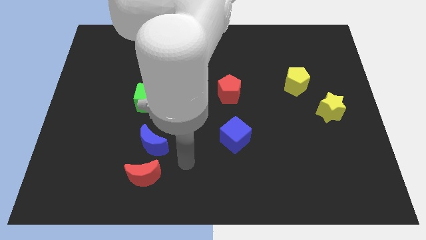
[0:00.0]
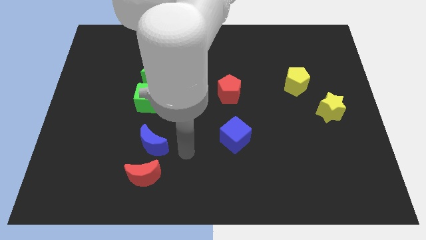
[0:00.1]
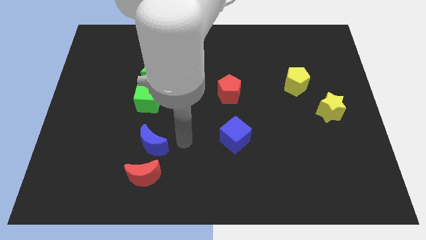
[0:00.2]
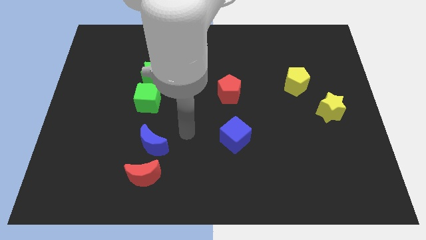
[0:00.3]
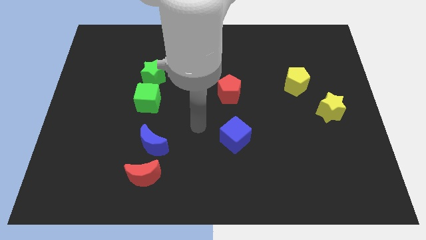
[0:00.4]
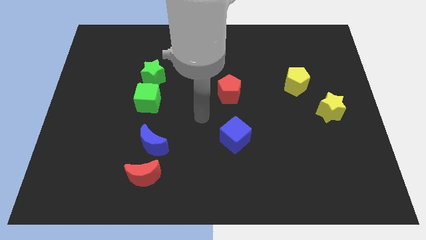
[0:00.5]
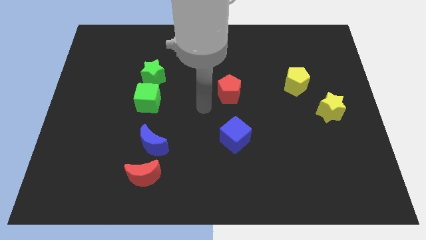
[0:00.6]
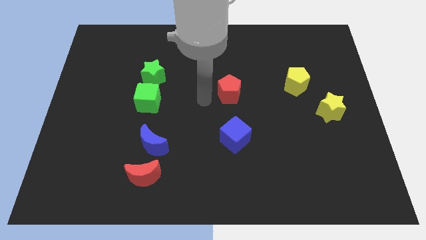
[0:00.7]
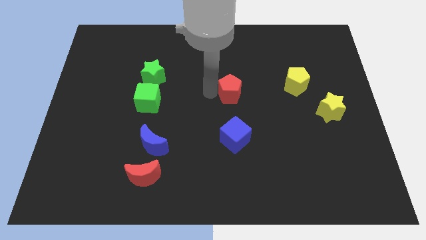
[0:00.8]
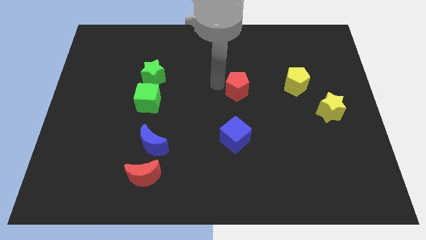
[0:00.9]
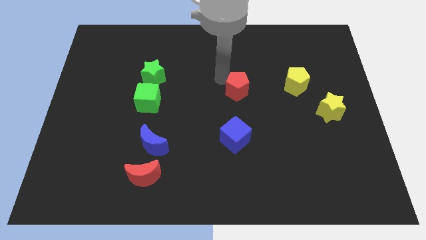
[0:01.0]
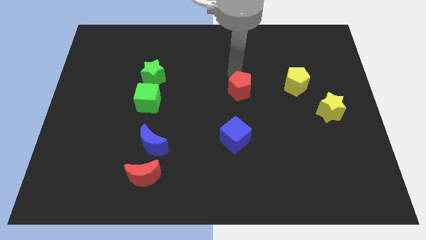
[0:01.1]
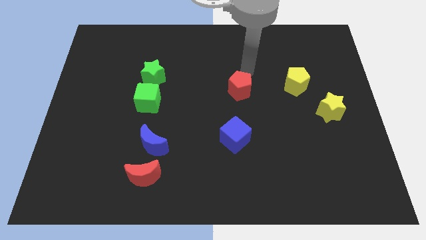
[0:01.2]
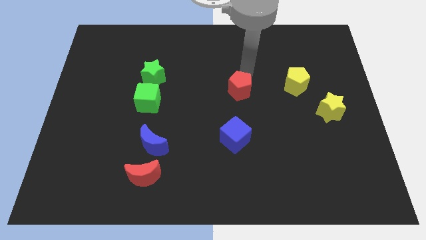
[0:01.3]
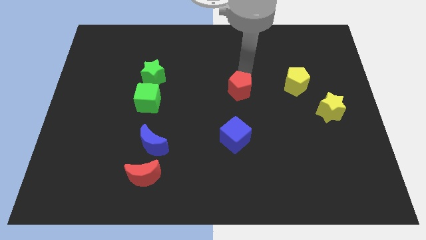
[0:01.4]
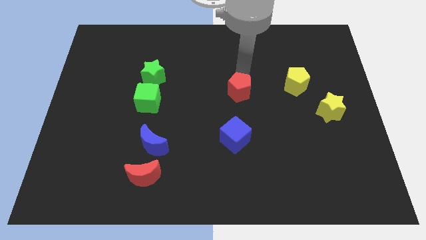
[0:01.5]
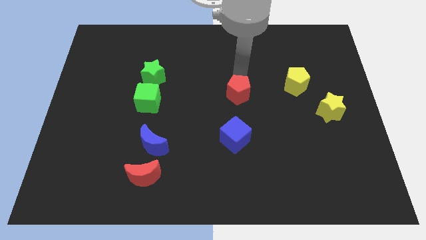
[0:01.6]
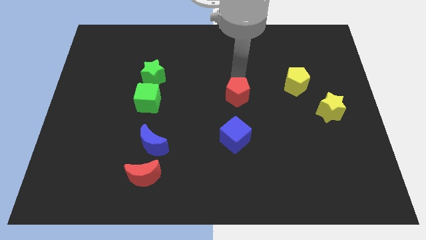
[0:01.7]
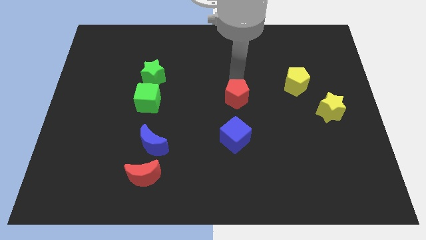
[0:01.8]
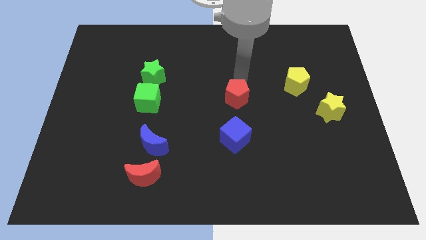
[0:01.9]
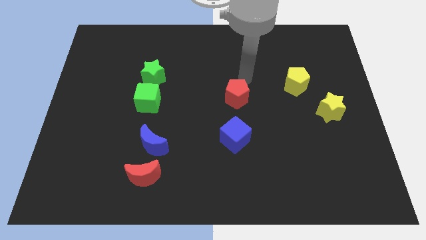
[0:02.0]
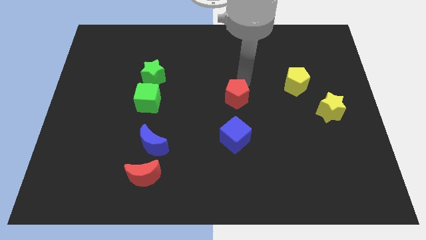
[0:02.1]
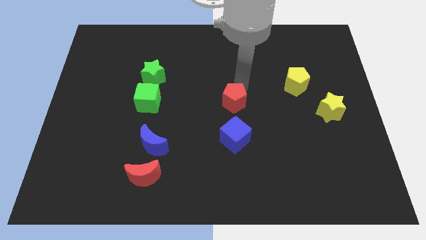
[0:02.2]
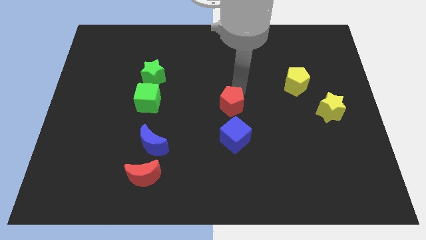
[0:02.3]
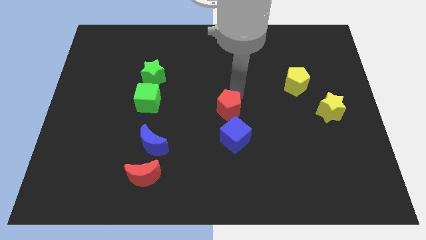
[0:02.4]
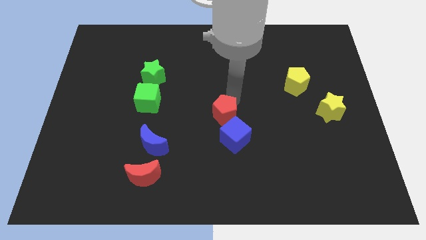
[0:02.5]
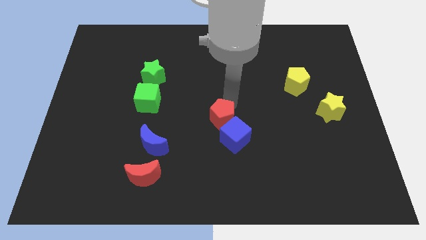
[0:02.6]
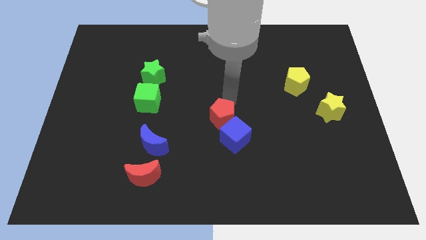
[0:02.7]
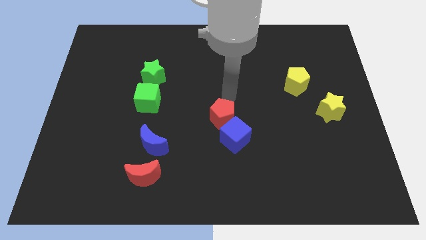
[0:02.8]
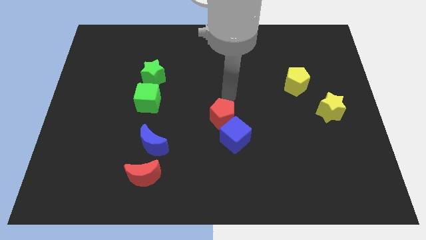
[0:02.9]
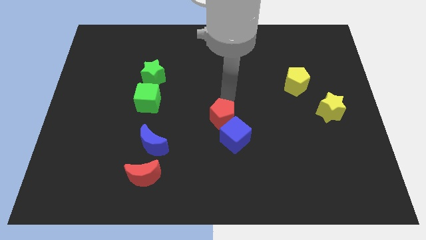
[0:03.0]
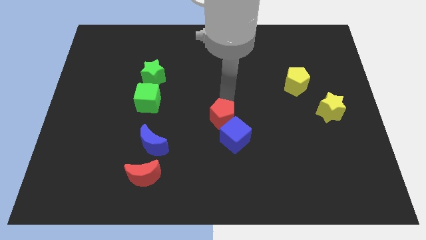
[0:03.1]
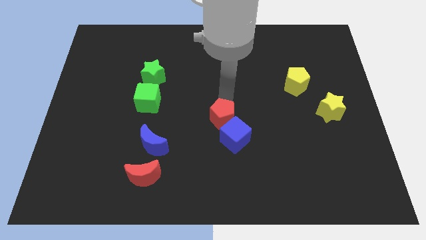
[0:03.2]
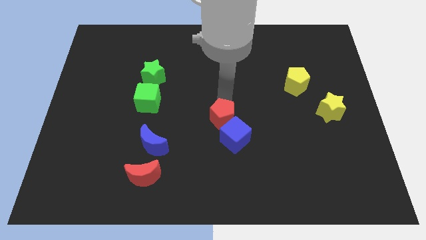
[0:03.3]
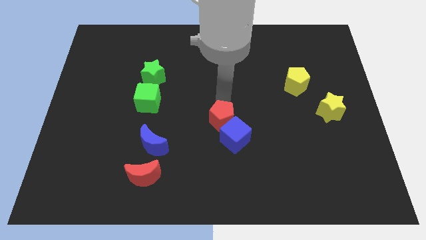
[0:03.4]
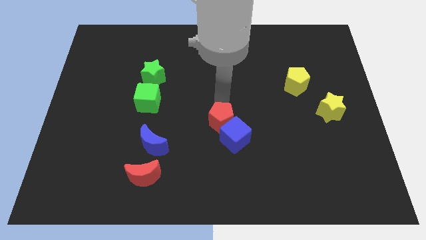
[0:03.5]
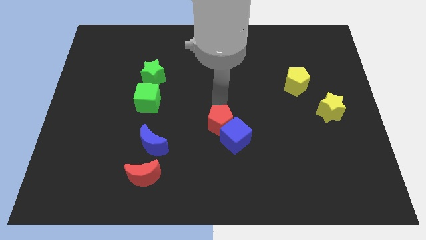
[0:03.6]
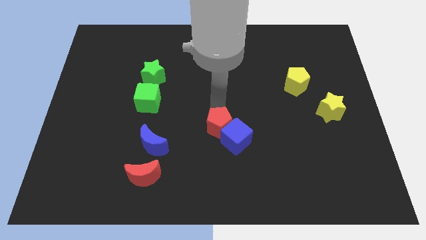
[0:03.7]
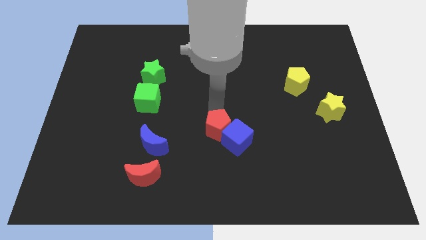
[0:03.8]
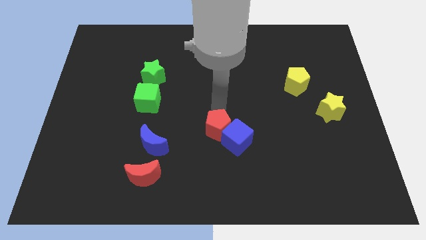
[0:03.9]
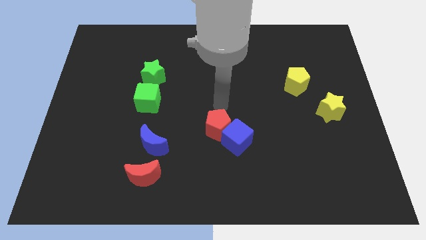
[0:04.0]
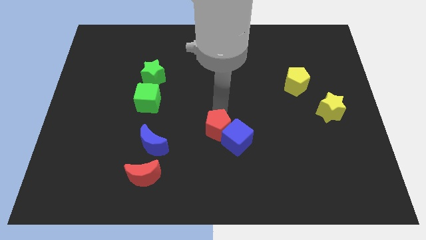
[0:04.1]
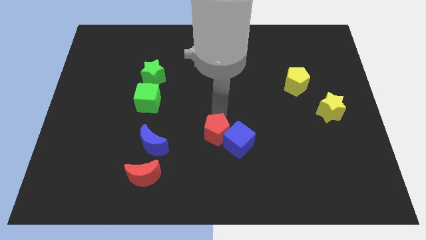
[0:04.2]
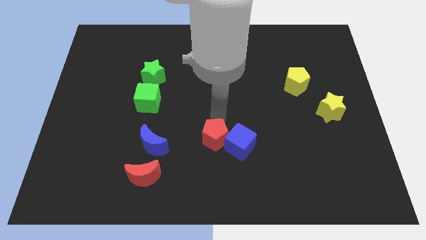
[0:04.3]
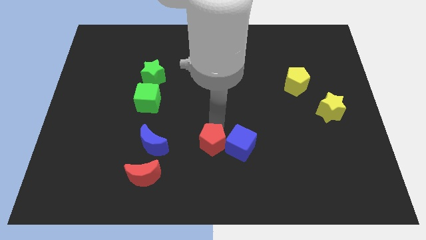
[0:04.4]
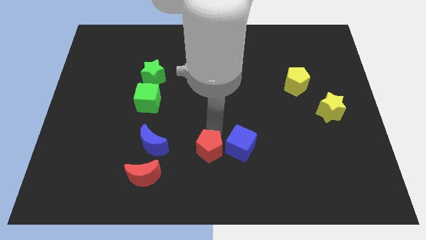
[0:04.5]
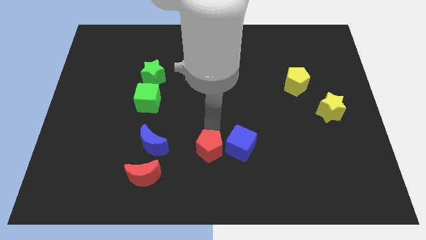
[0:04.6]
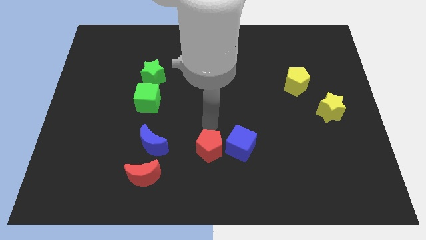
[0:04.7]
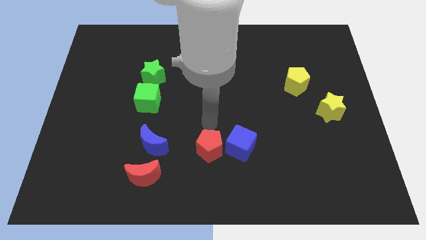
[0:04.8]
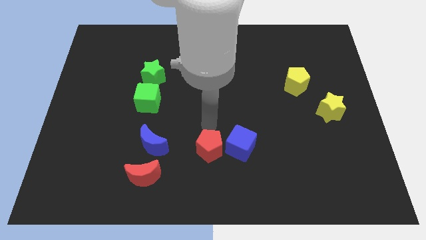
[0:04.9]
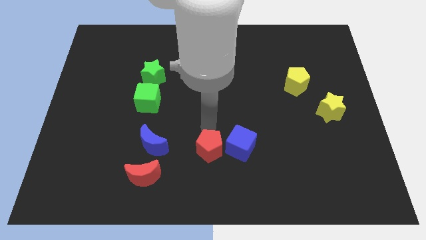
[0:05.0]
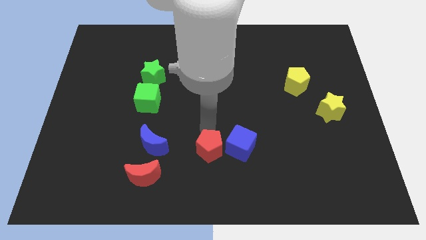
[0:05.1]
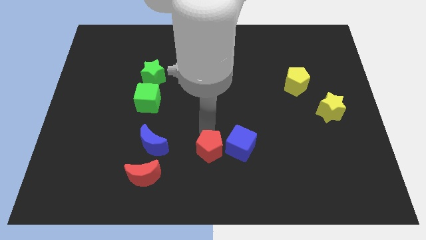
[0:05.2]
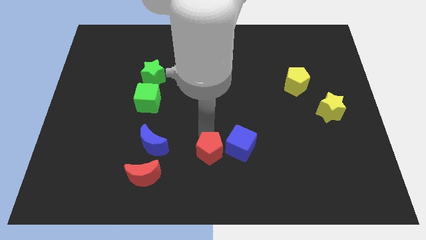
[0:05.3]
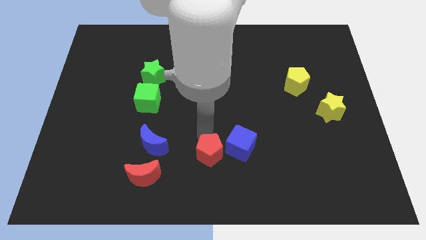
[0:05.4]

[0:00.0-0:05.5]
move the red pentagon to the bottom

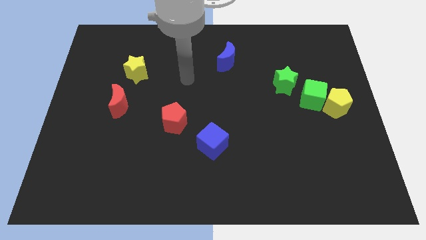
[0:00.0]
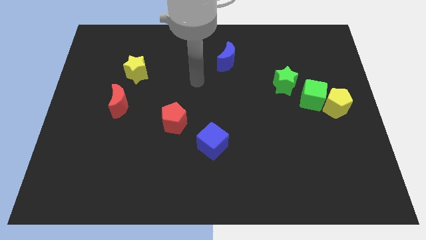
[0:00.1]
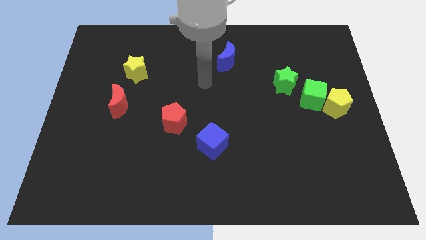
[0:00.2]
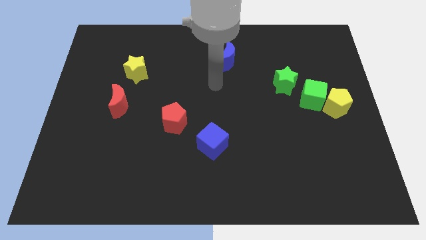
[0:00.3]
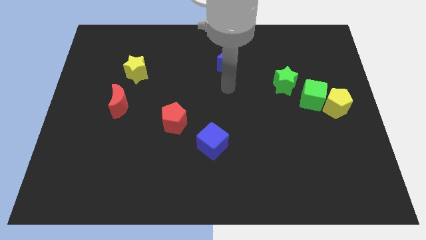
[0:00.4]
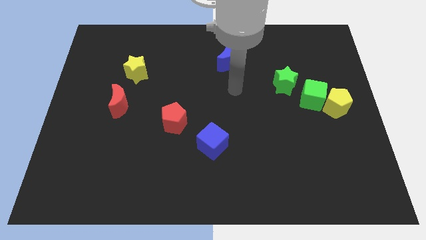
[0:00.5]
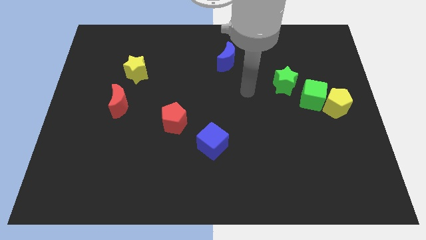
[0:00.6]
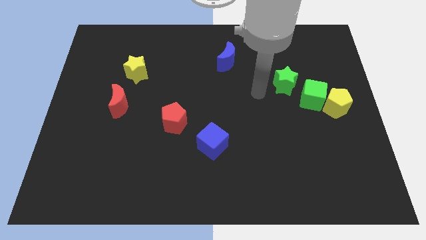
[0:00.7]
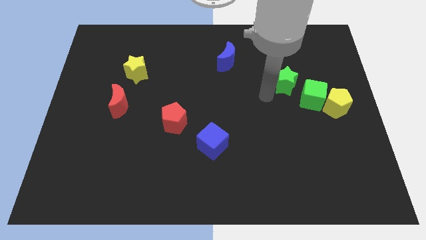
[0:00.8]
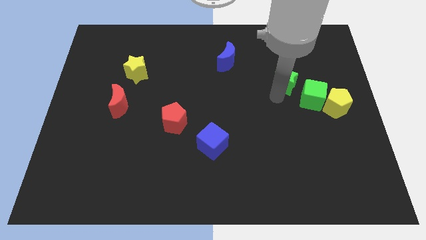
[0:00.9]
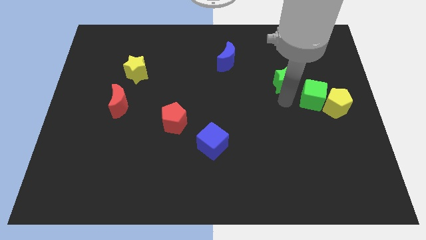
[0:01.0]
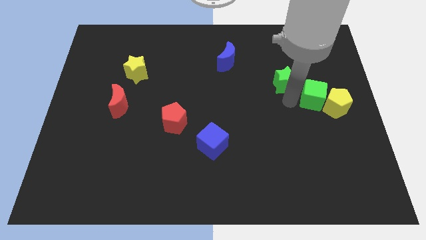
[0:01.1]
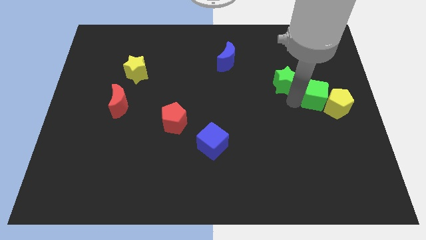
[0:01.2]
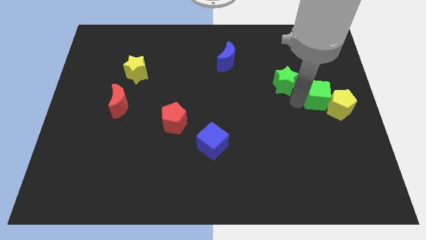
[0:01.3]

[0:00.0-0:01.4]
move the green cube to the right side of the board
